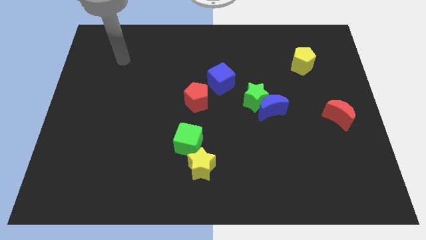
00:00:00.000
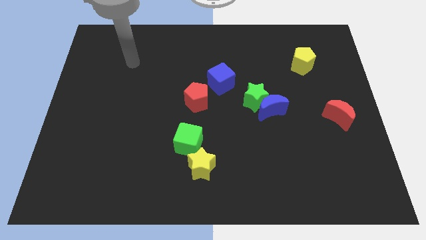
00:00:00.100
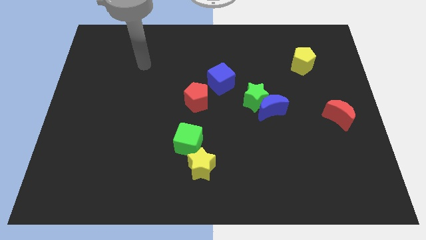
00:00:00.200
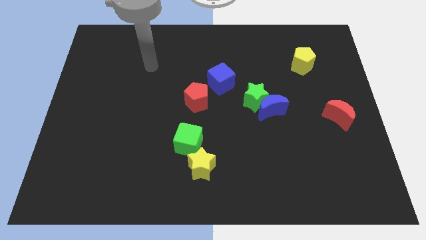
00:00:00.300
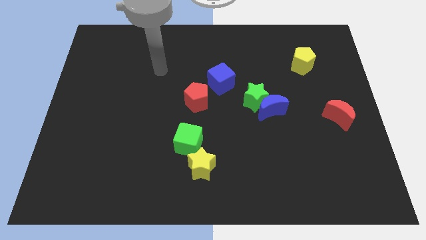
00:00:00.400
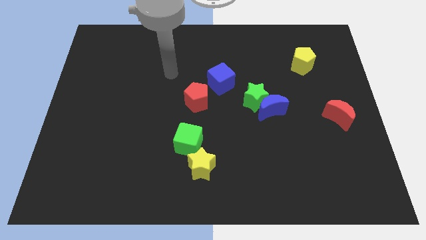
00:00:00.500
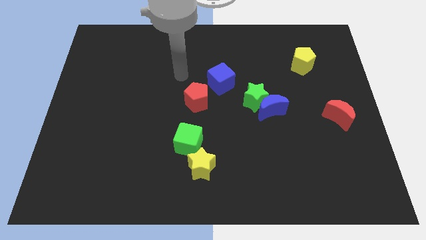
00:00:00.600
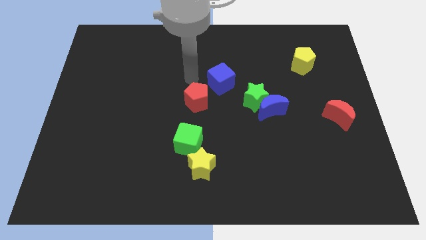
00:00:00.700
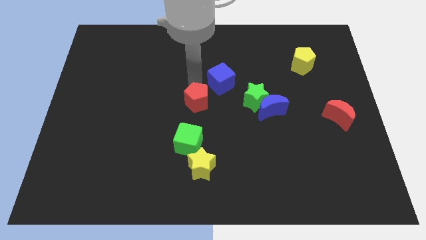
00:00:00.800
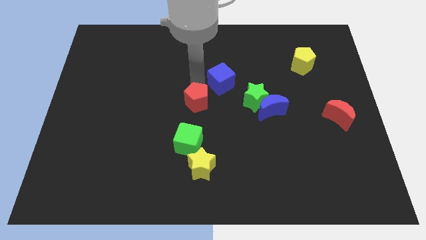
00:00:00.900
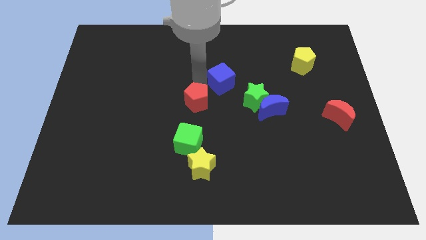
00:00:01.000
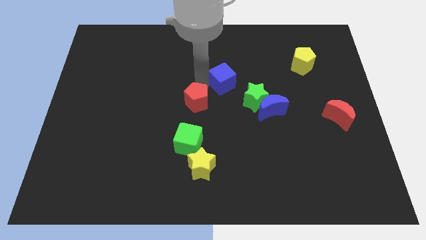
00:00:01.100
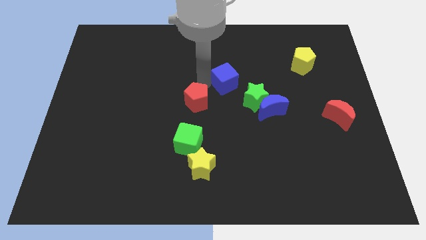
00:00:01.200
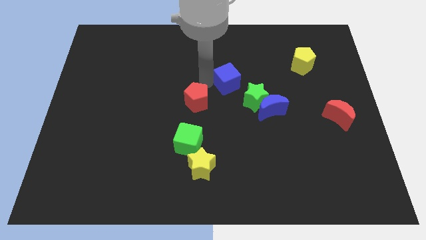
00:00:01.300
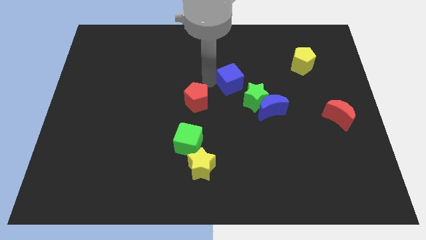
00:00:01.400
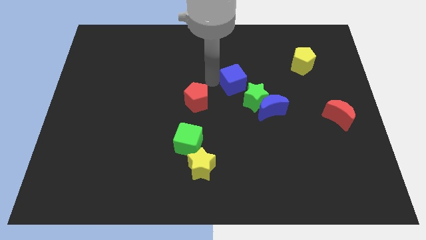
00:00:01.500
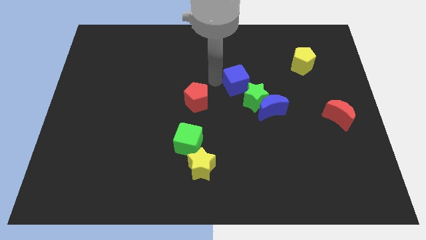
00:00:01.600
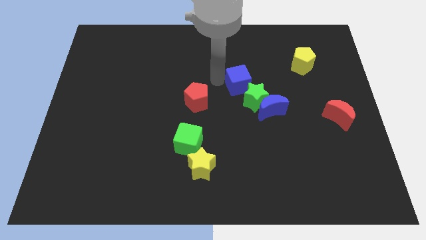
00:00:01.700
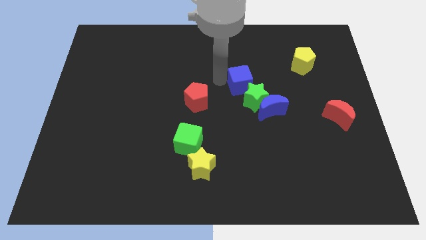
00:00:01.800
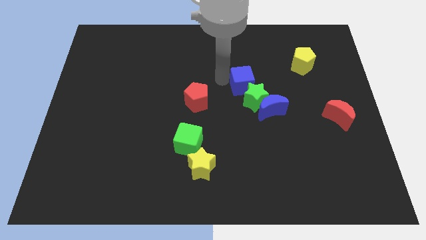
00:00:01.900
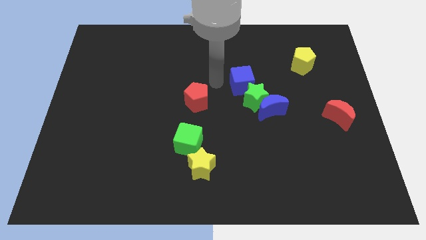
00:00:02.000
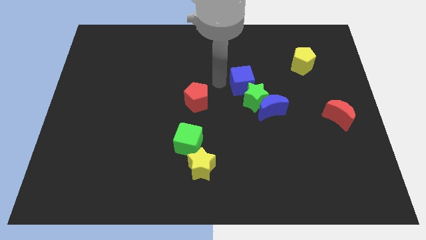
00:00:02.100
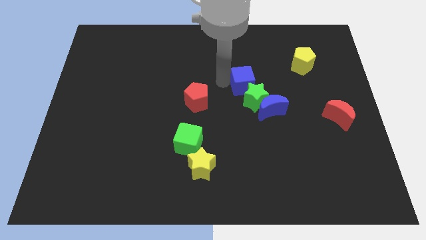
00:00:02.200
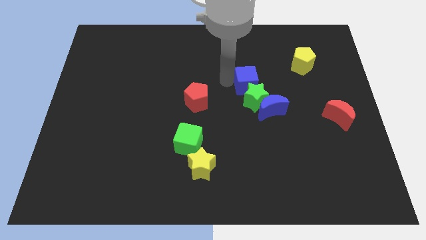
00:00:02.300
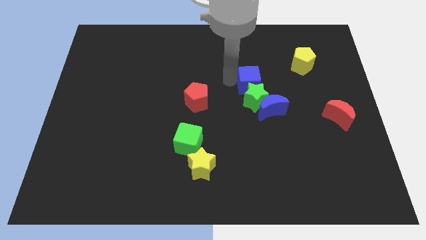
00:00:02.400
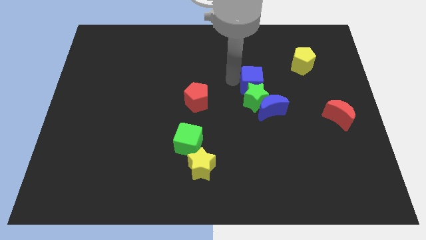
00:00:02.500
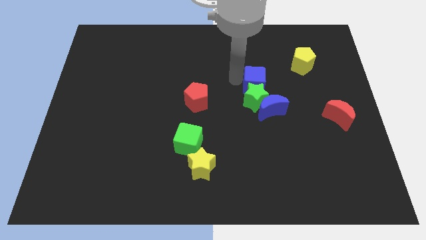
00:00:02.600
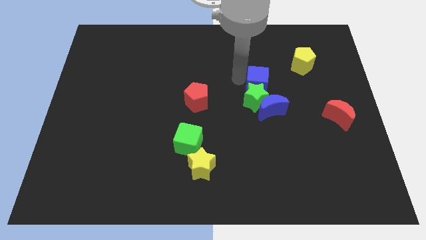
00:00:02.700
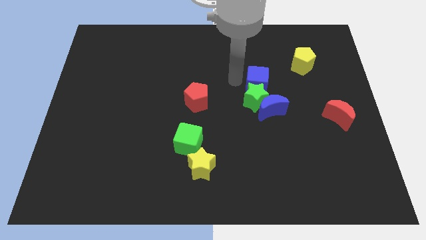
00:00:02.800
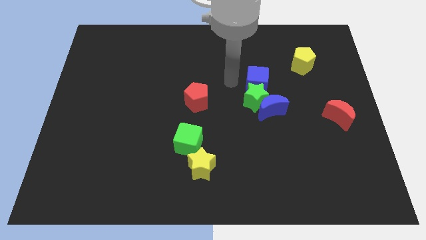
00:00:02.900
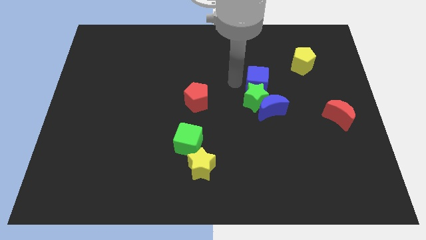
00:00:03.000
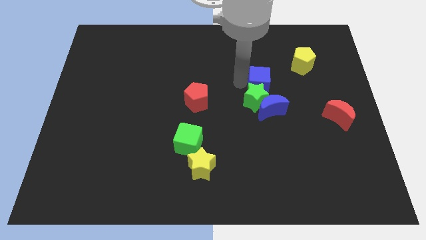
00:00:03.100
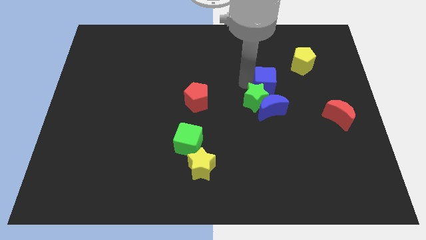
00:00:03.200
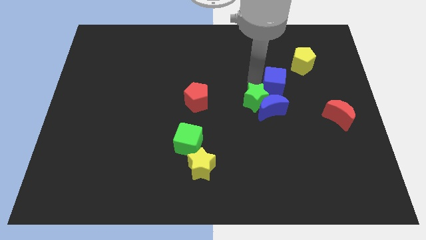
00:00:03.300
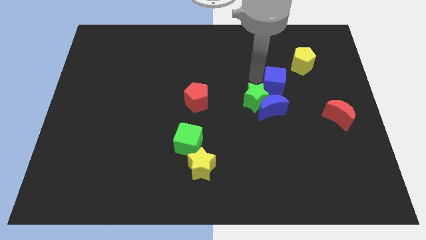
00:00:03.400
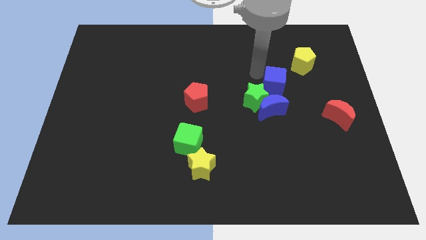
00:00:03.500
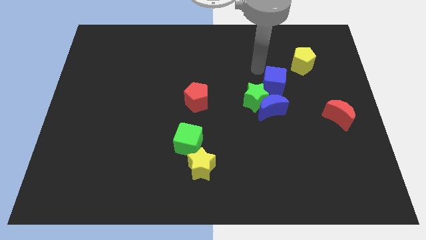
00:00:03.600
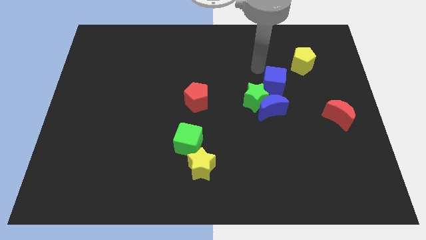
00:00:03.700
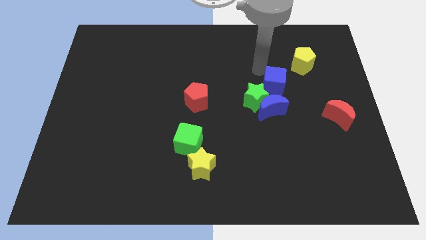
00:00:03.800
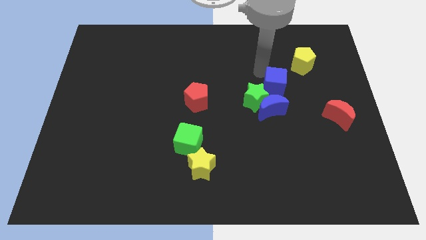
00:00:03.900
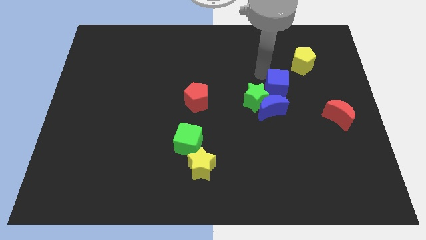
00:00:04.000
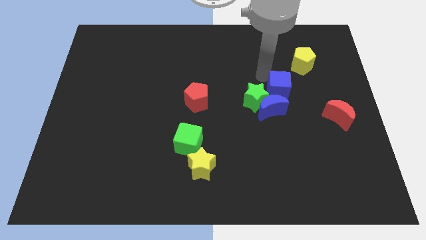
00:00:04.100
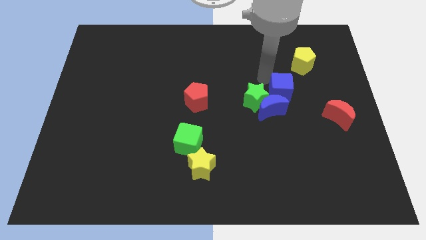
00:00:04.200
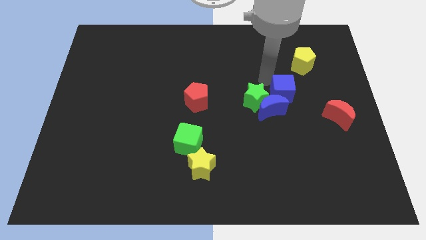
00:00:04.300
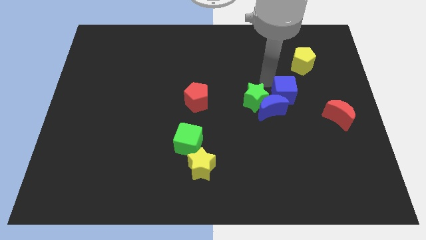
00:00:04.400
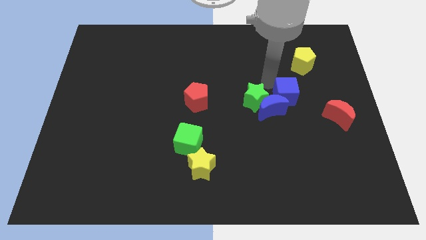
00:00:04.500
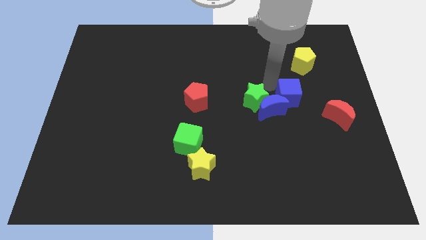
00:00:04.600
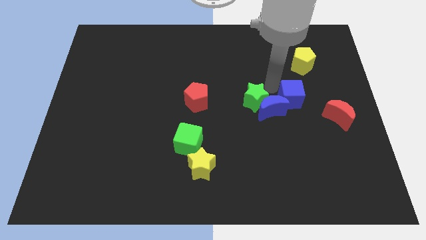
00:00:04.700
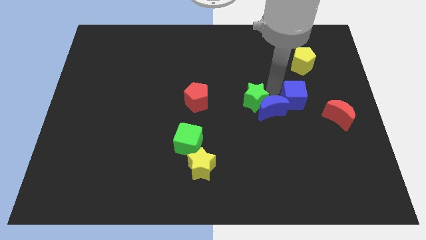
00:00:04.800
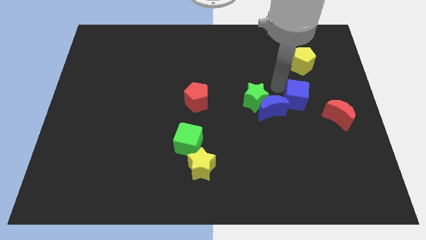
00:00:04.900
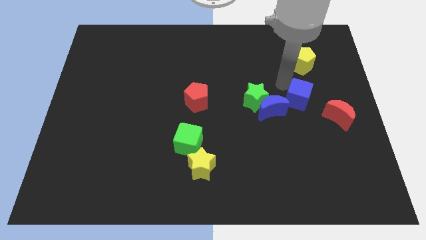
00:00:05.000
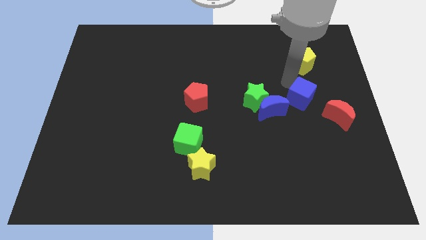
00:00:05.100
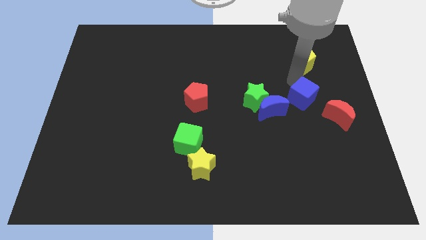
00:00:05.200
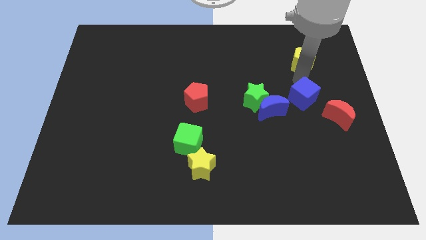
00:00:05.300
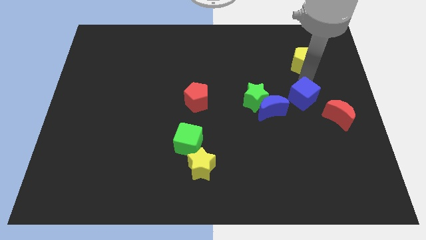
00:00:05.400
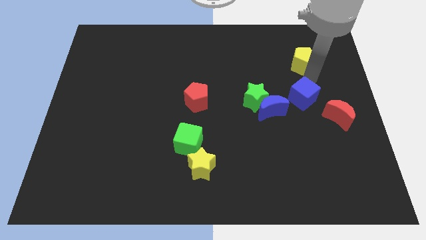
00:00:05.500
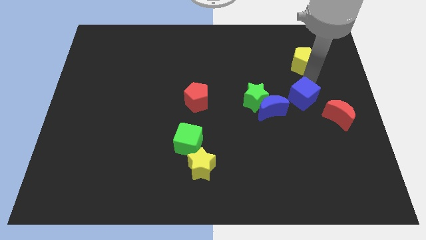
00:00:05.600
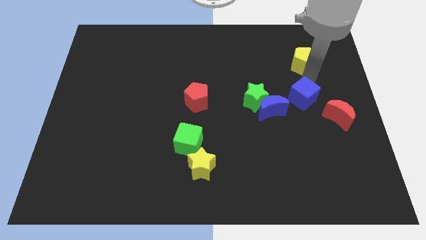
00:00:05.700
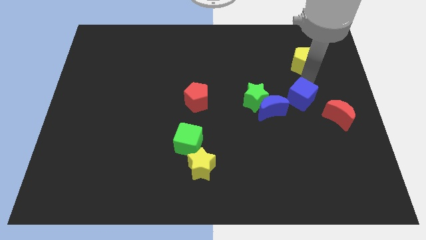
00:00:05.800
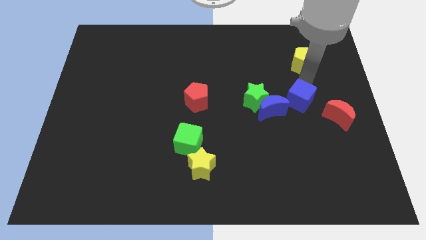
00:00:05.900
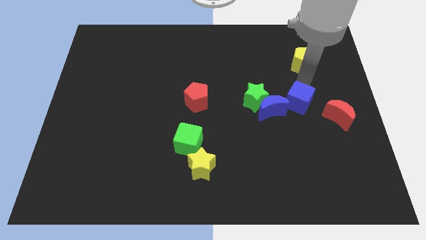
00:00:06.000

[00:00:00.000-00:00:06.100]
move the blue cube left of the red moon

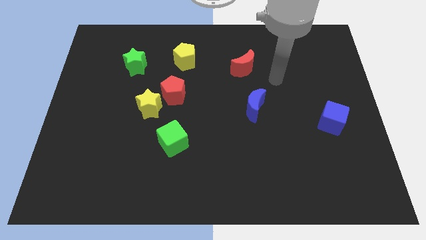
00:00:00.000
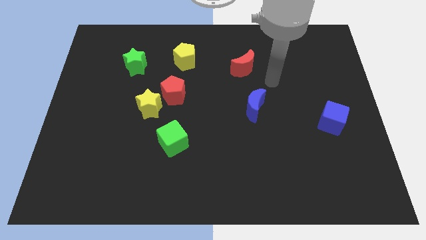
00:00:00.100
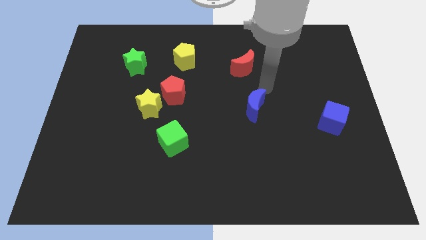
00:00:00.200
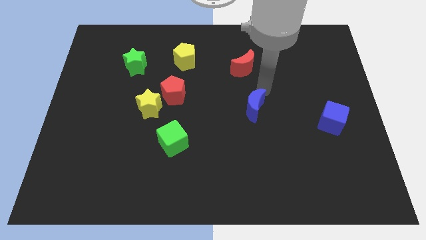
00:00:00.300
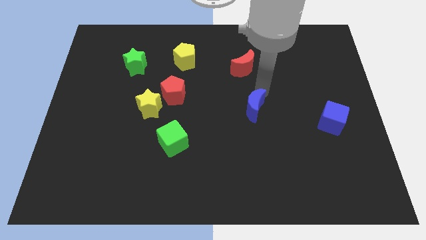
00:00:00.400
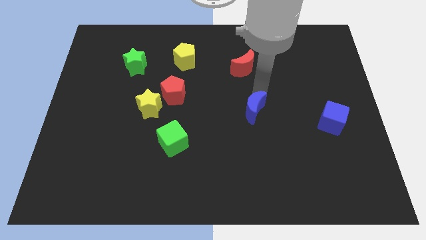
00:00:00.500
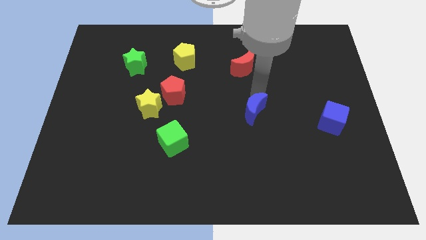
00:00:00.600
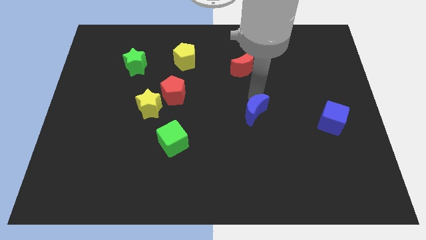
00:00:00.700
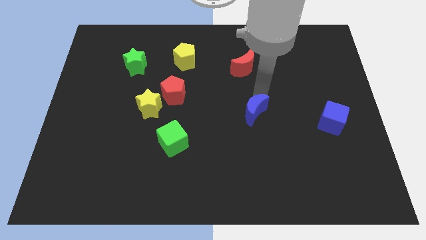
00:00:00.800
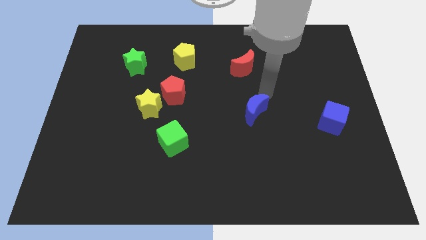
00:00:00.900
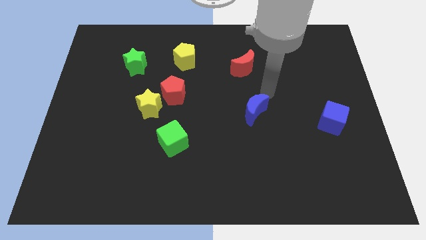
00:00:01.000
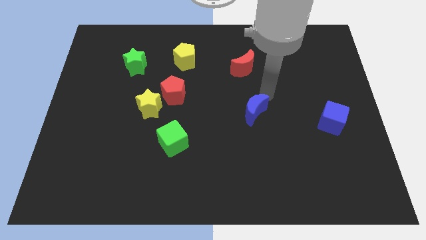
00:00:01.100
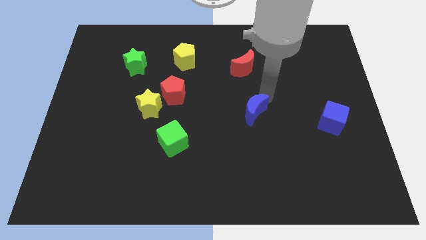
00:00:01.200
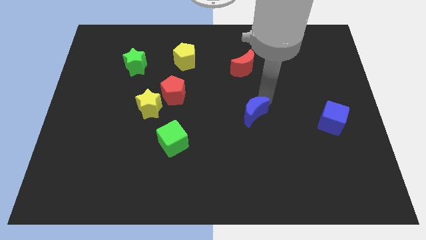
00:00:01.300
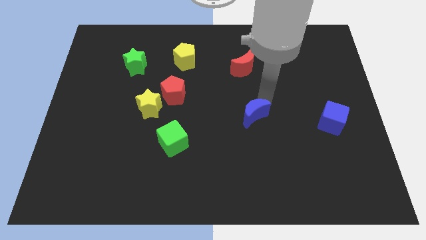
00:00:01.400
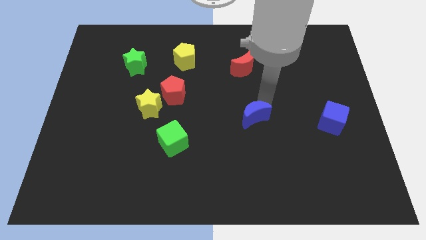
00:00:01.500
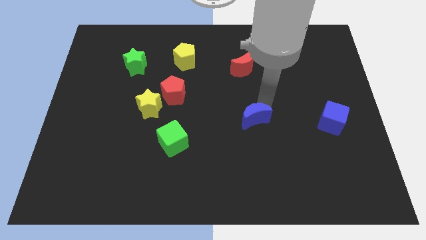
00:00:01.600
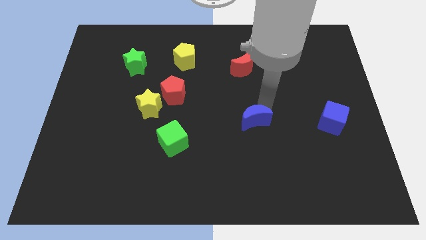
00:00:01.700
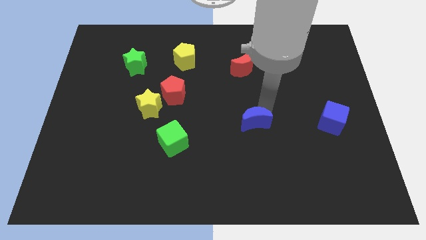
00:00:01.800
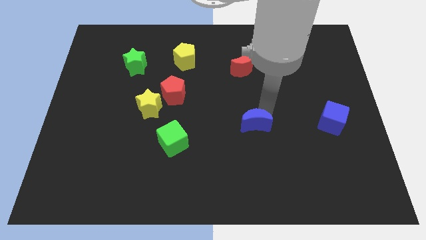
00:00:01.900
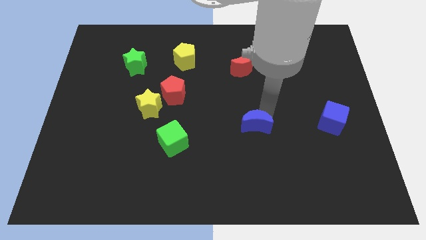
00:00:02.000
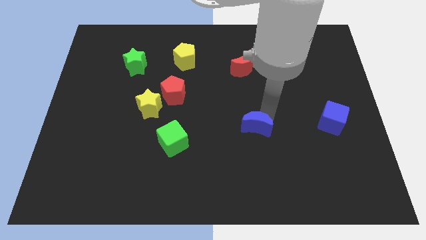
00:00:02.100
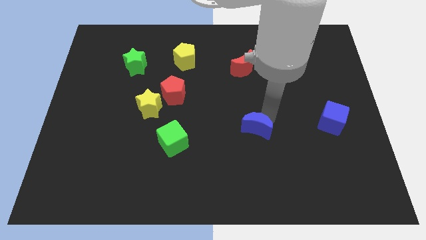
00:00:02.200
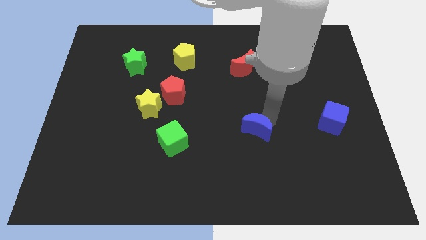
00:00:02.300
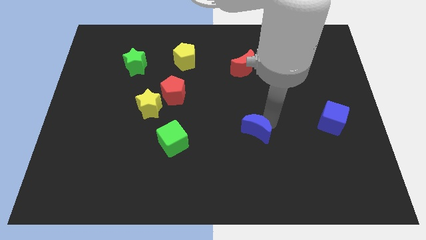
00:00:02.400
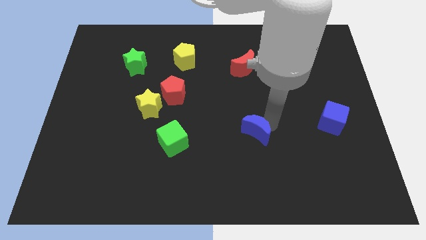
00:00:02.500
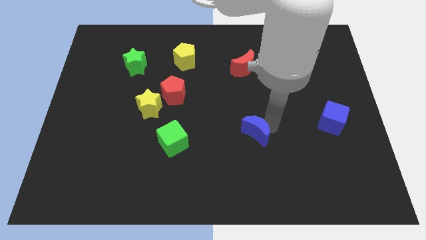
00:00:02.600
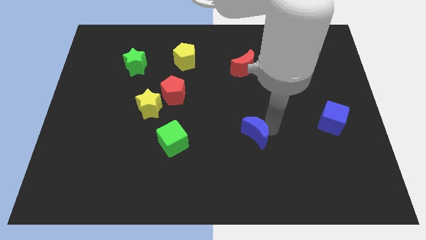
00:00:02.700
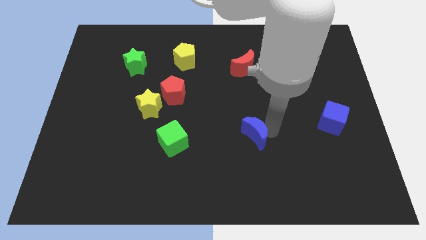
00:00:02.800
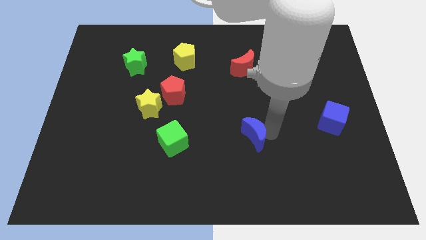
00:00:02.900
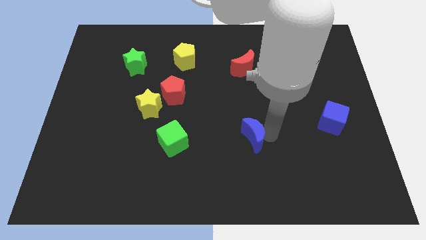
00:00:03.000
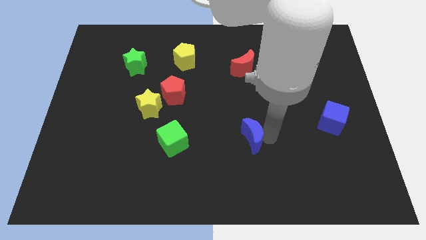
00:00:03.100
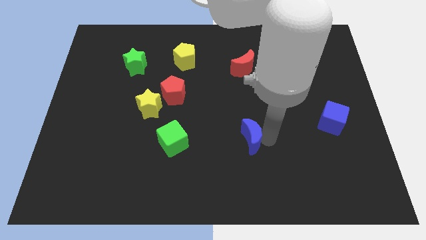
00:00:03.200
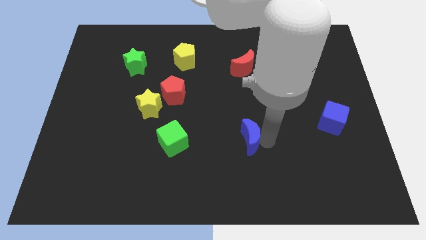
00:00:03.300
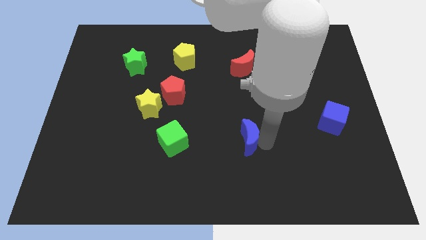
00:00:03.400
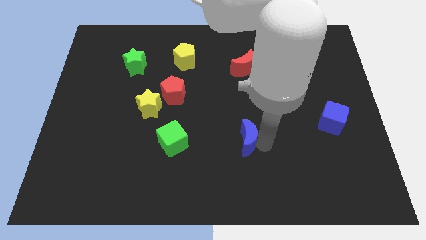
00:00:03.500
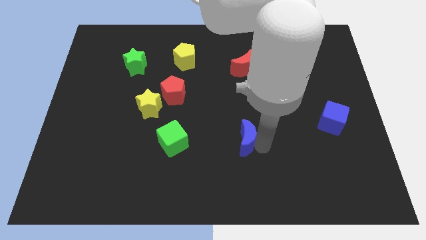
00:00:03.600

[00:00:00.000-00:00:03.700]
slide the blue moon to the right side of the green cube
